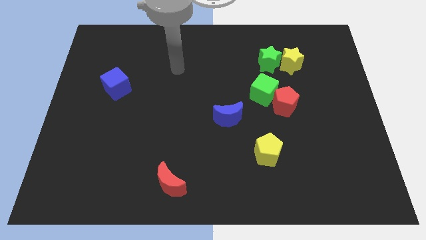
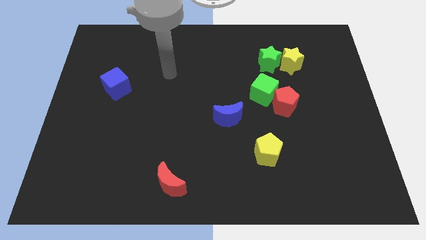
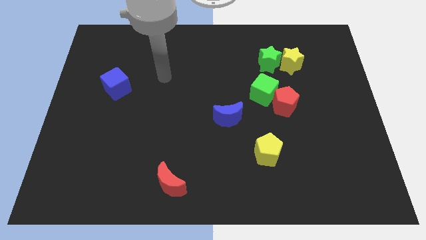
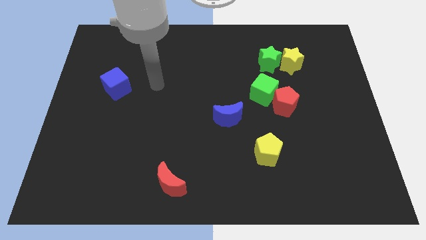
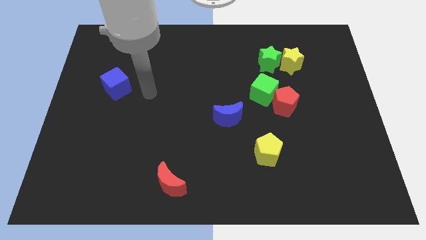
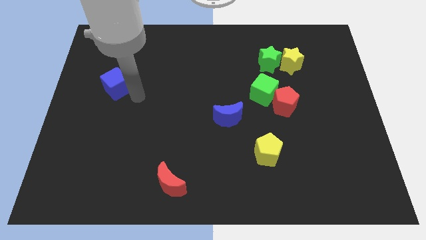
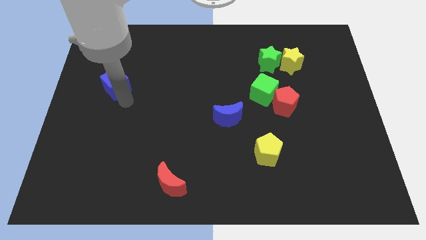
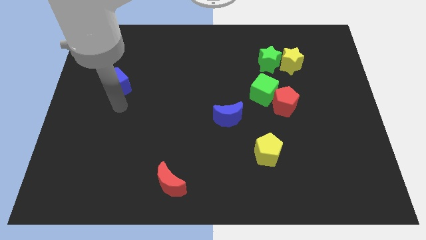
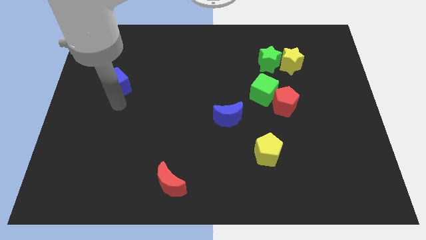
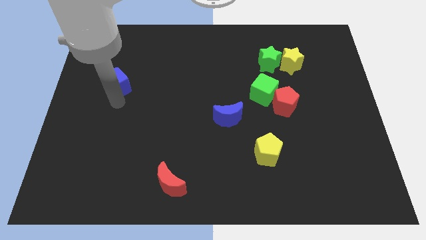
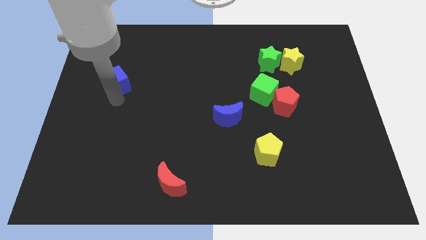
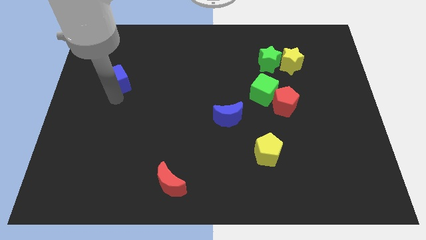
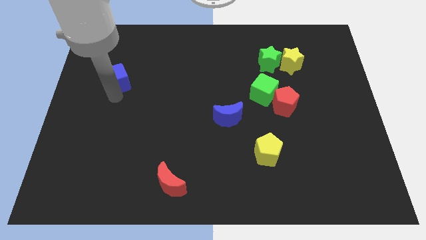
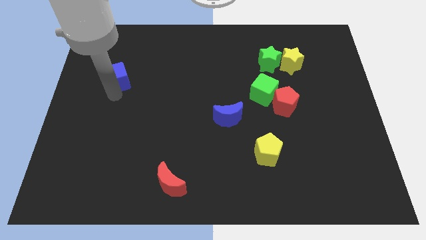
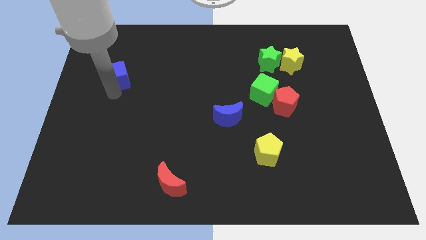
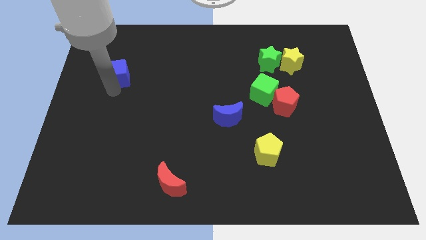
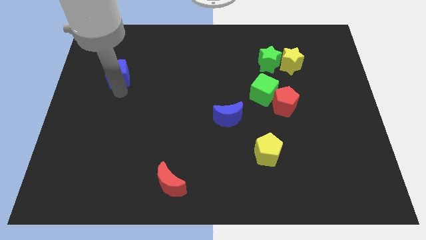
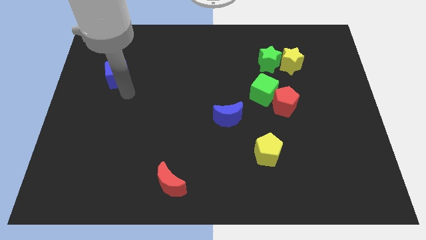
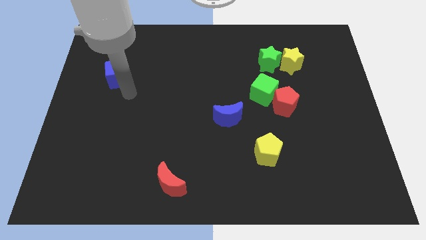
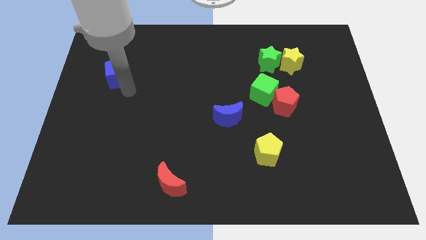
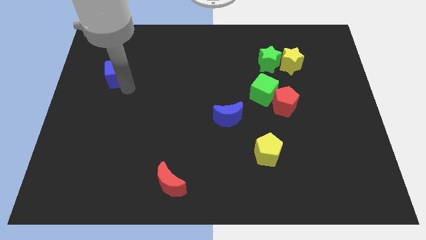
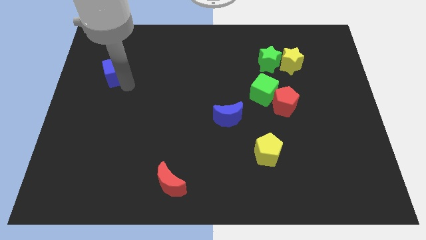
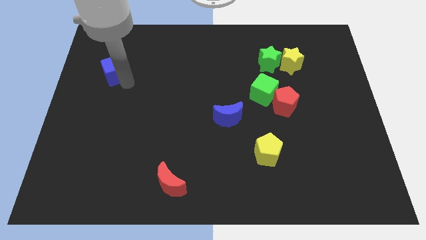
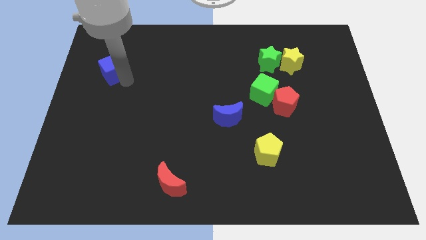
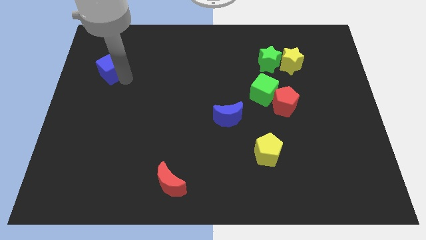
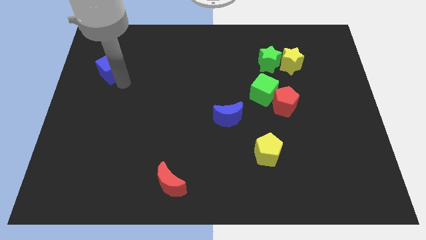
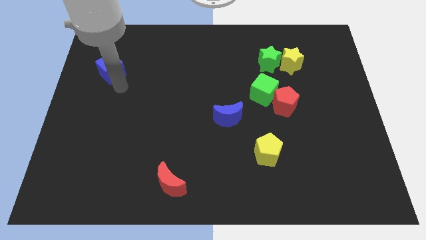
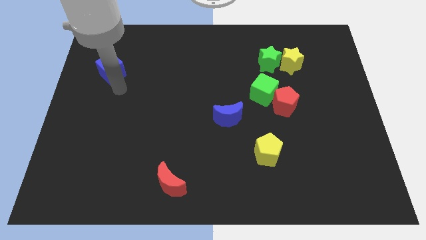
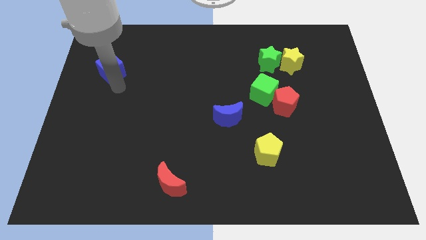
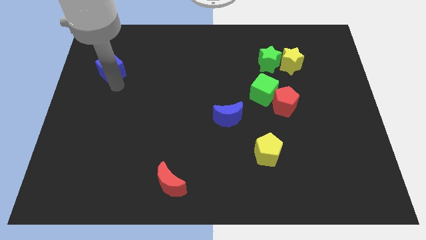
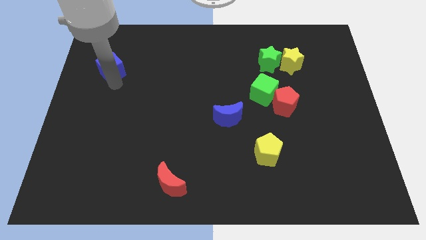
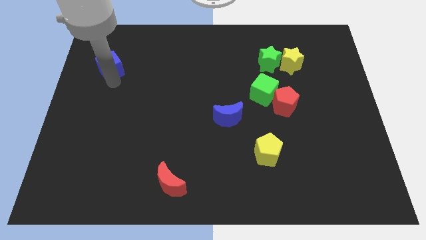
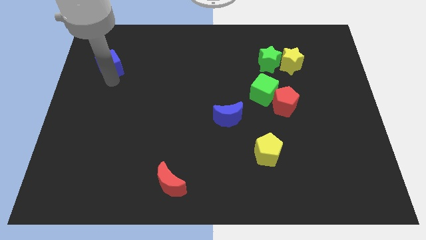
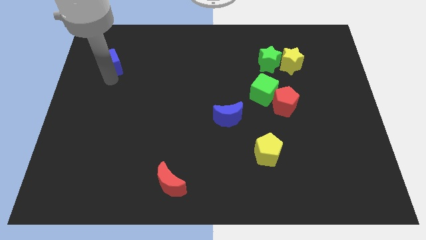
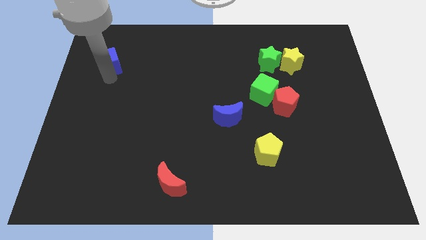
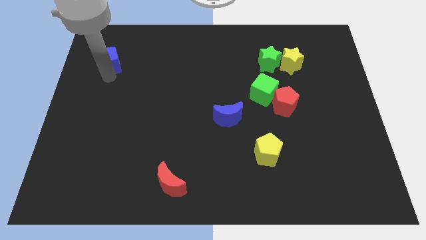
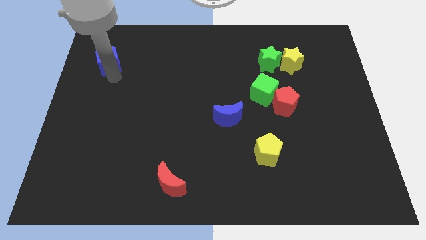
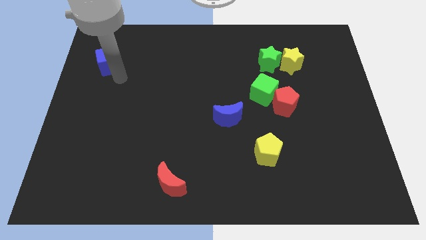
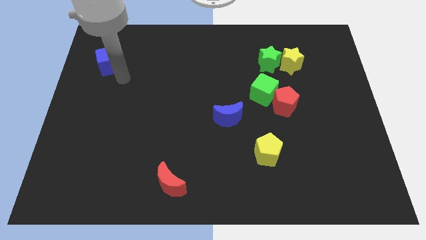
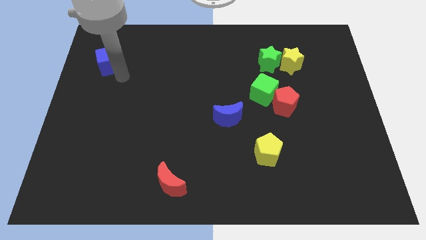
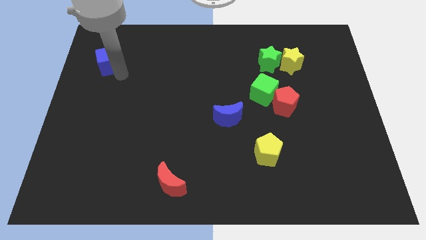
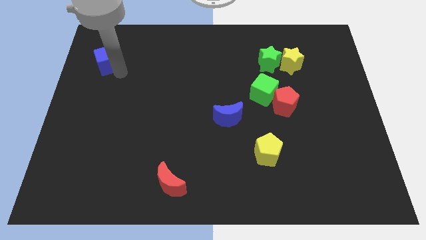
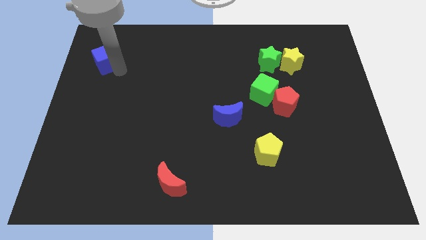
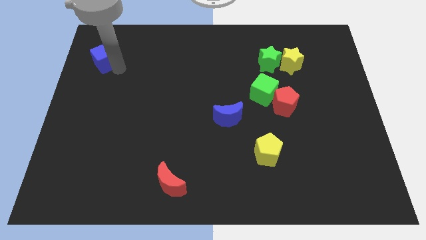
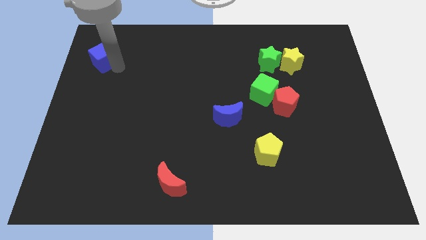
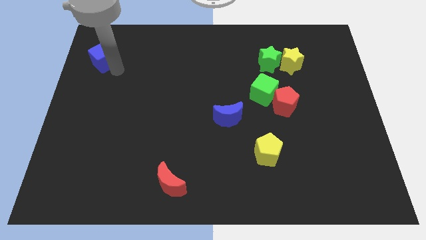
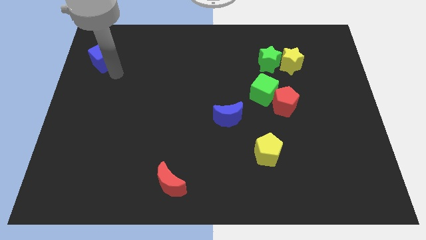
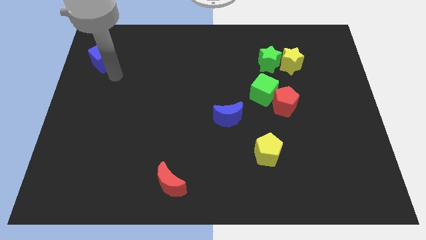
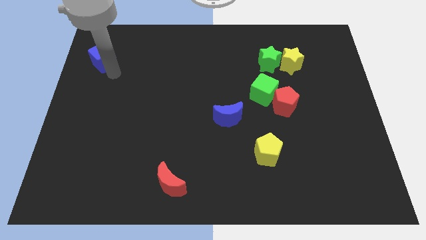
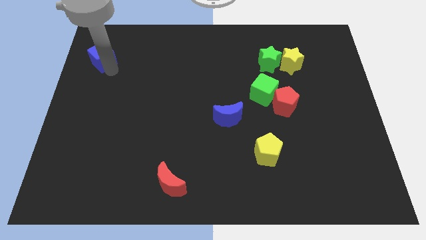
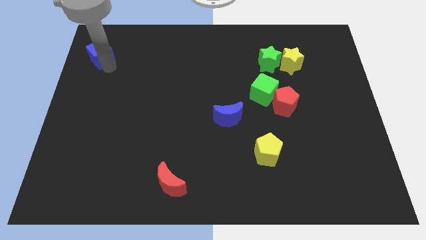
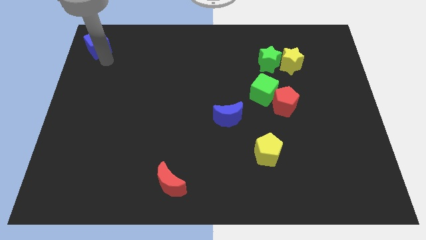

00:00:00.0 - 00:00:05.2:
put the blue cube to the top left of the board

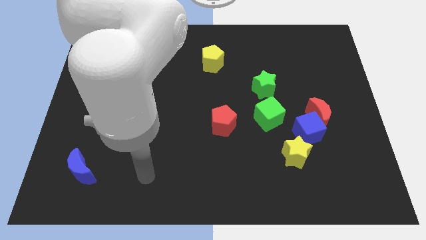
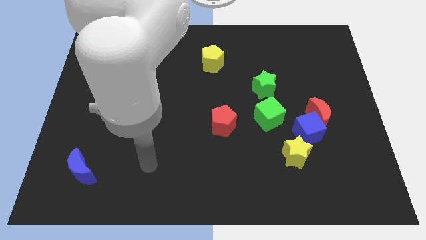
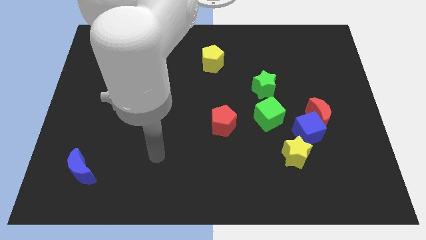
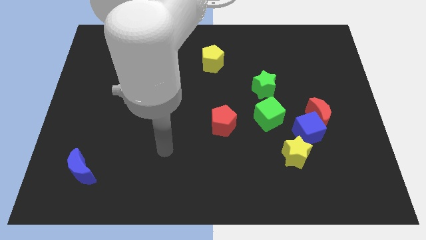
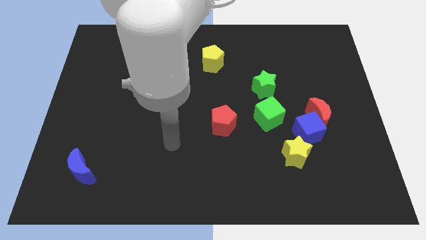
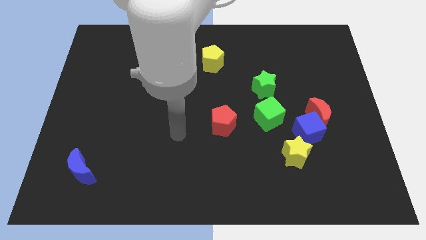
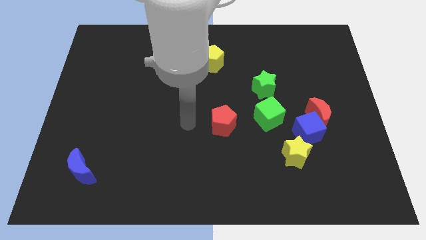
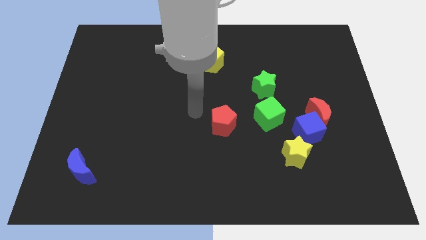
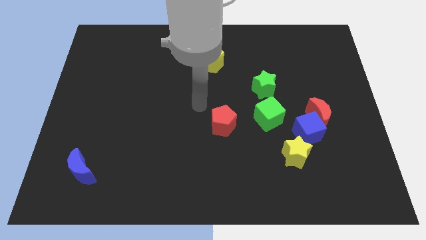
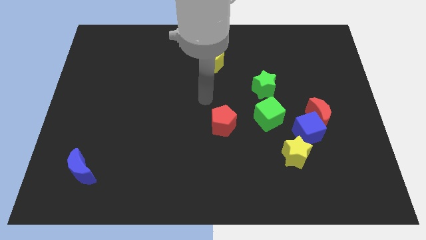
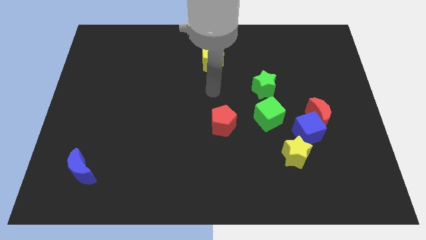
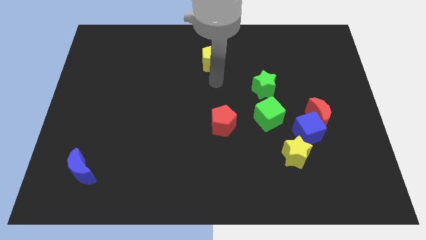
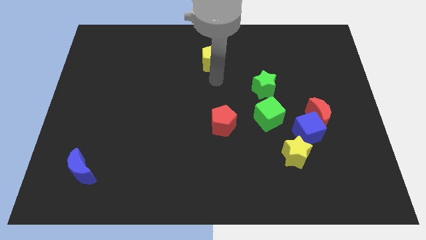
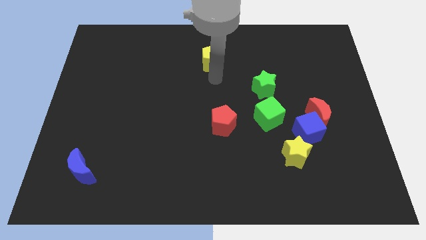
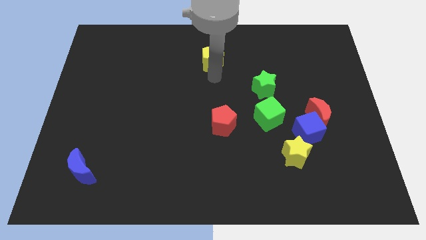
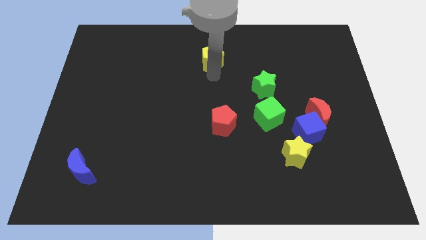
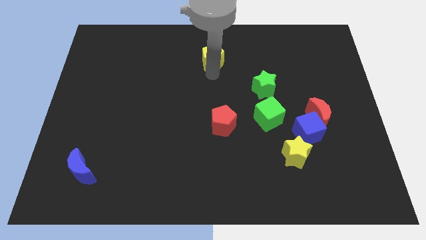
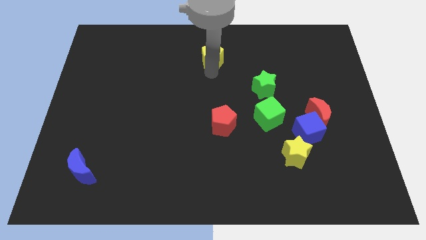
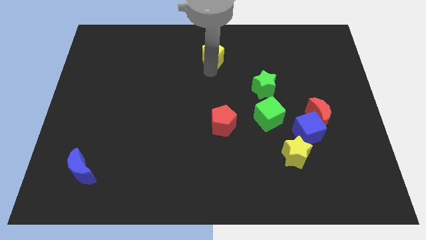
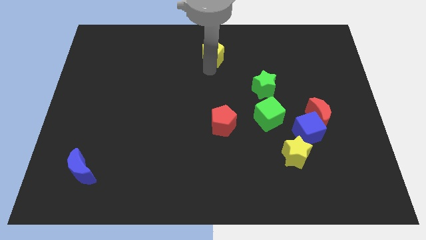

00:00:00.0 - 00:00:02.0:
move the yellow pentagon to the top
